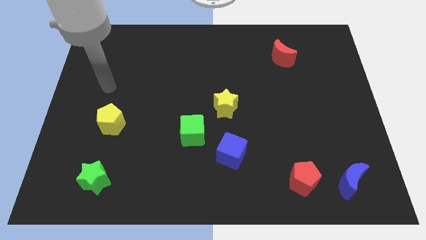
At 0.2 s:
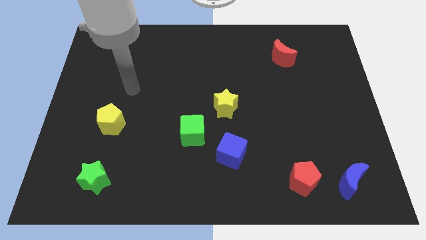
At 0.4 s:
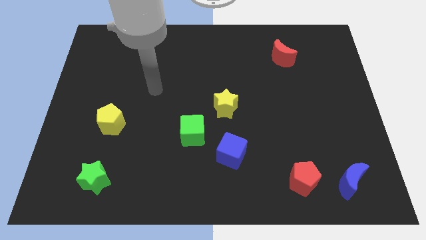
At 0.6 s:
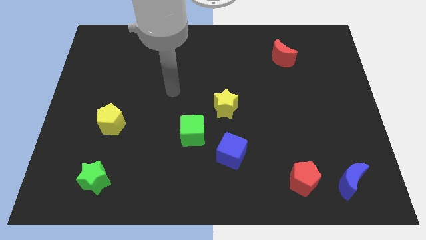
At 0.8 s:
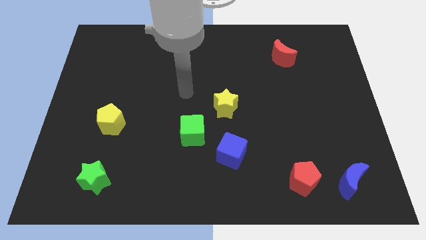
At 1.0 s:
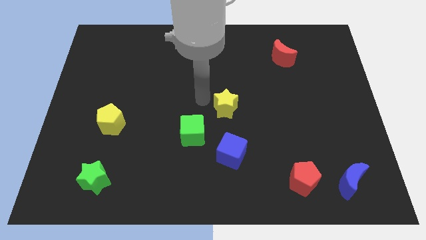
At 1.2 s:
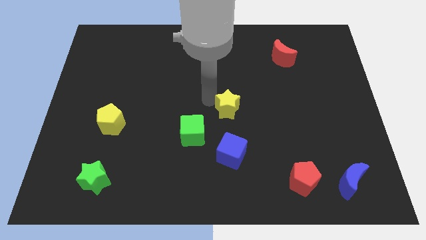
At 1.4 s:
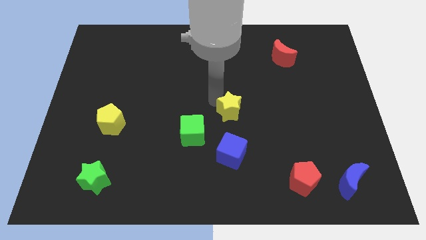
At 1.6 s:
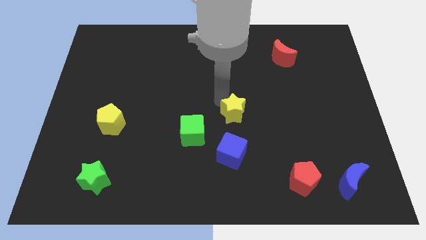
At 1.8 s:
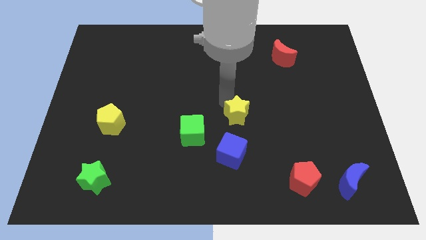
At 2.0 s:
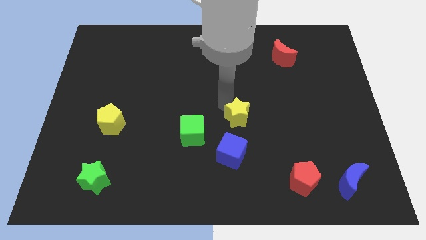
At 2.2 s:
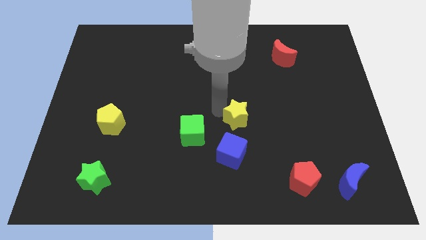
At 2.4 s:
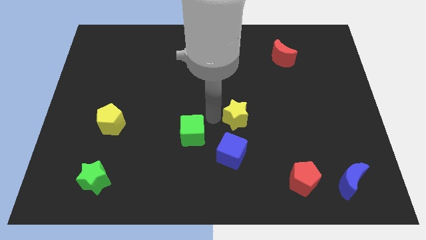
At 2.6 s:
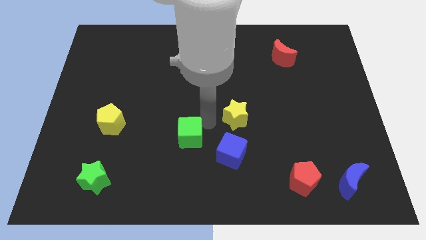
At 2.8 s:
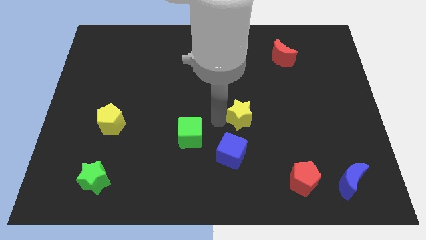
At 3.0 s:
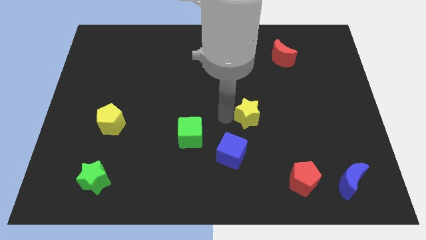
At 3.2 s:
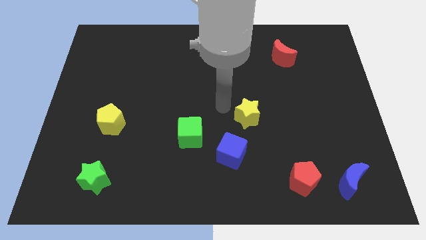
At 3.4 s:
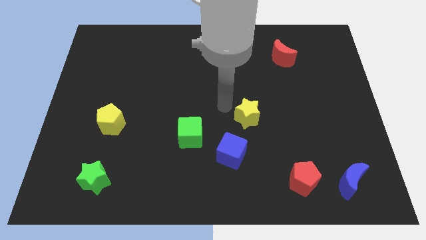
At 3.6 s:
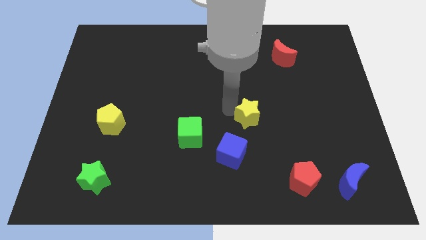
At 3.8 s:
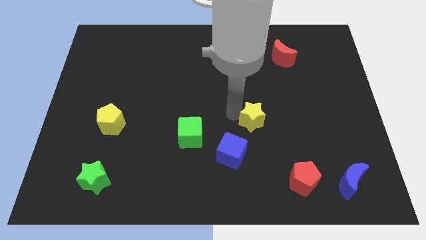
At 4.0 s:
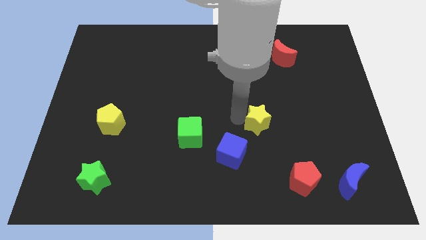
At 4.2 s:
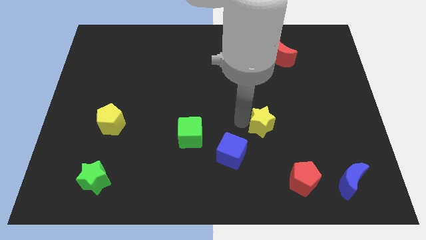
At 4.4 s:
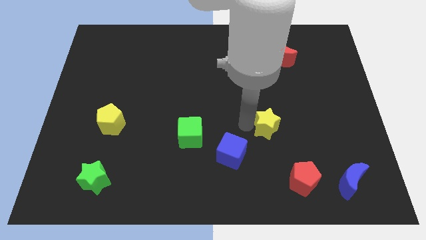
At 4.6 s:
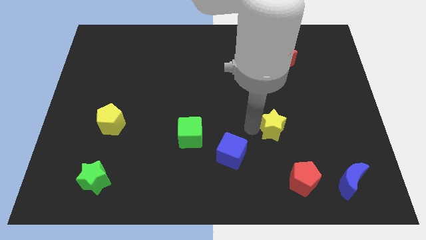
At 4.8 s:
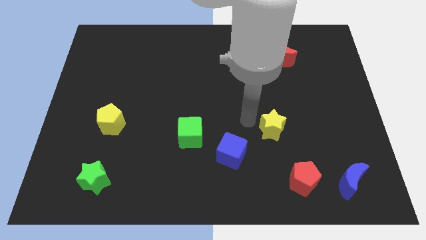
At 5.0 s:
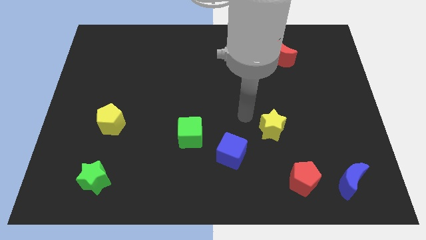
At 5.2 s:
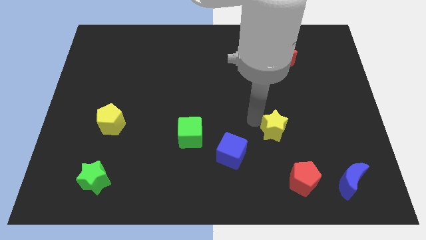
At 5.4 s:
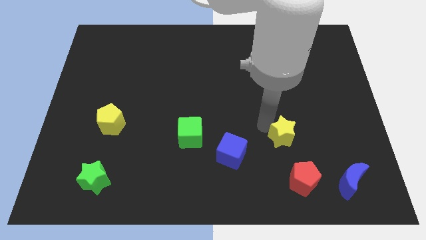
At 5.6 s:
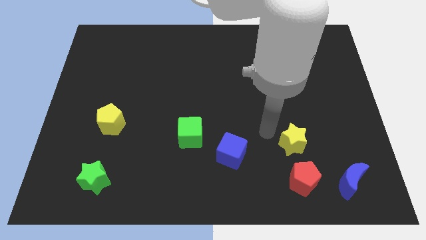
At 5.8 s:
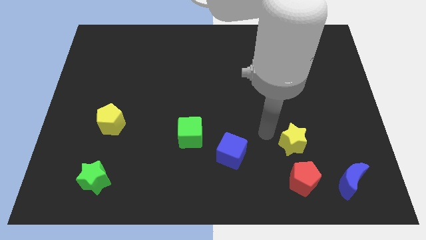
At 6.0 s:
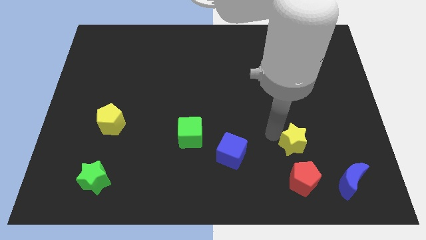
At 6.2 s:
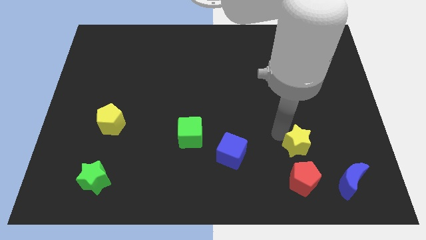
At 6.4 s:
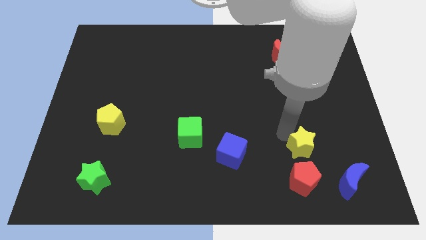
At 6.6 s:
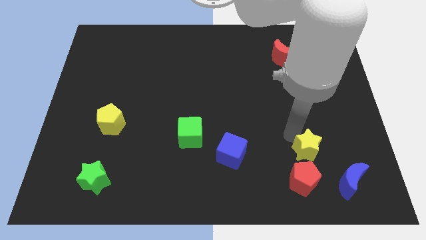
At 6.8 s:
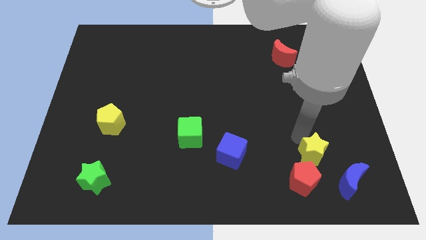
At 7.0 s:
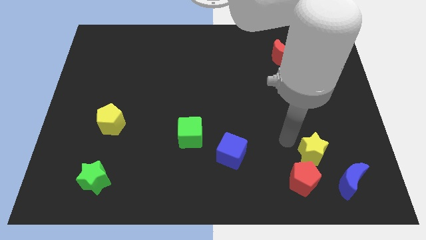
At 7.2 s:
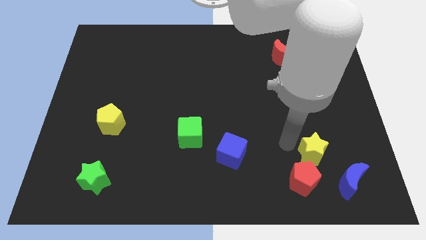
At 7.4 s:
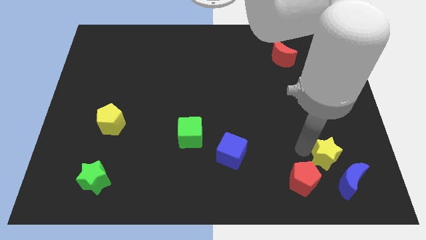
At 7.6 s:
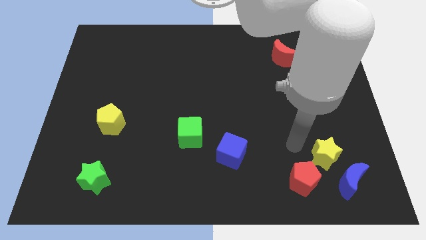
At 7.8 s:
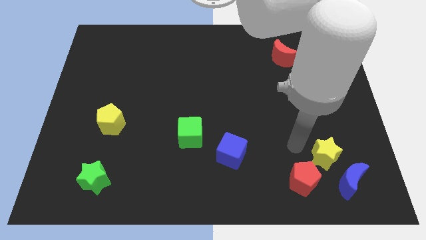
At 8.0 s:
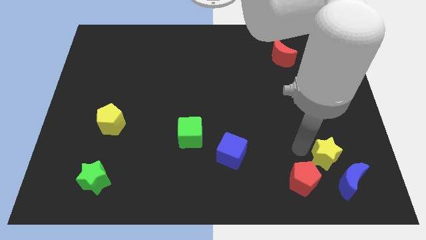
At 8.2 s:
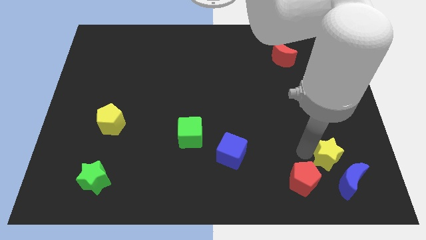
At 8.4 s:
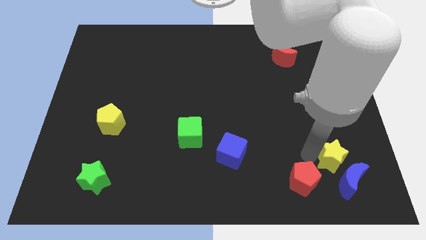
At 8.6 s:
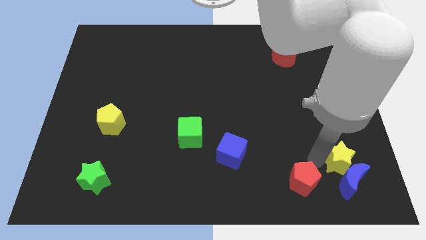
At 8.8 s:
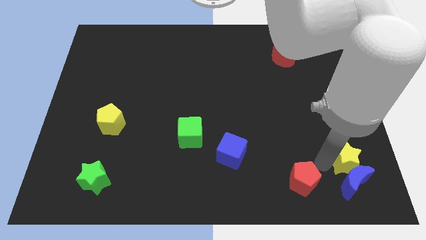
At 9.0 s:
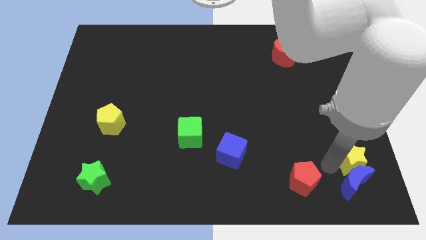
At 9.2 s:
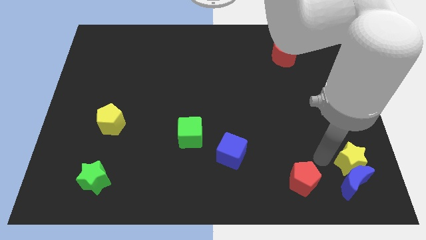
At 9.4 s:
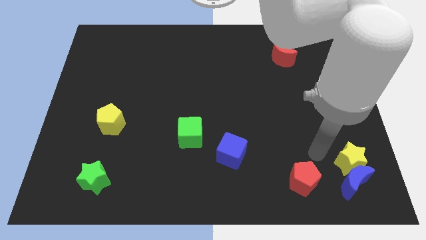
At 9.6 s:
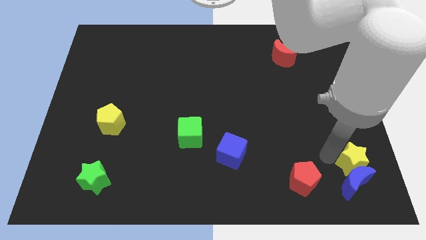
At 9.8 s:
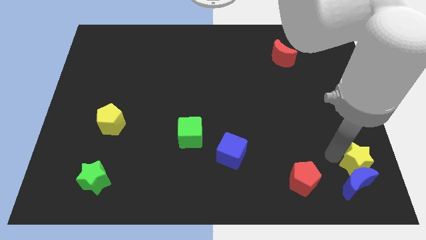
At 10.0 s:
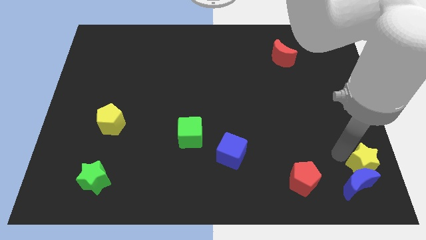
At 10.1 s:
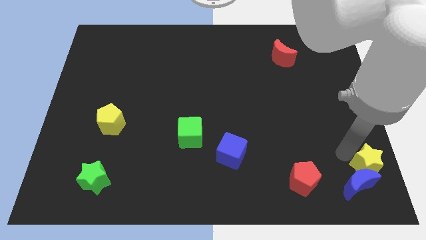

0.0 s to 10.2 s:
move the yellow star to the lower right corner

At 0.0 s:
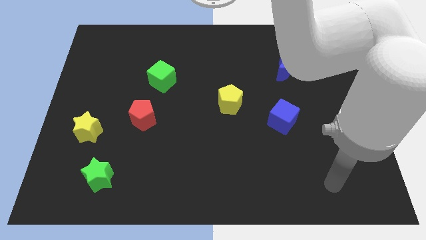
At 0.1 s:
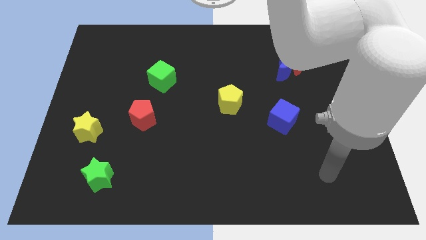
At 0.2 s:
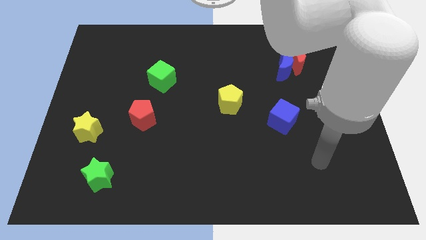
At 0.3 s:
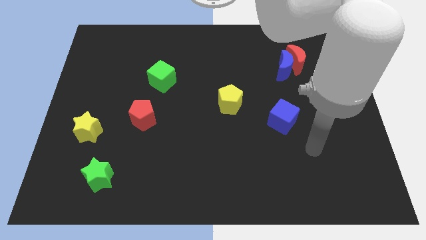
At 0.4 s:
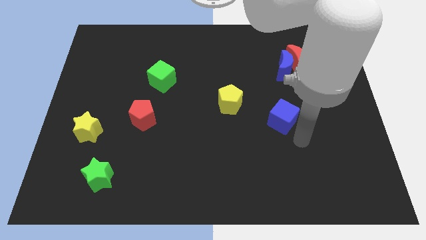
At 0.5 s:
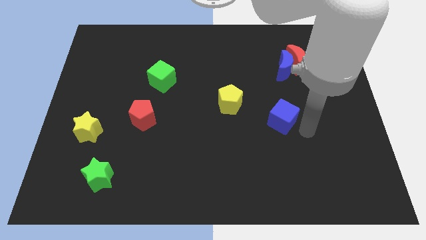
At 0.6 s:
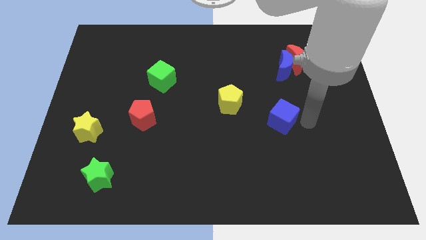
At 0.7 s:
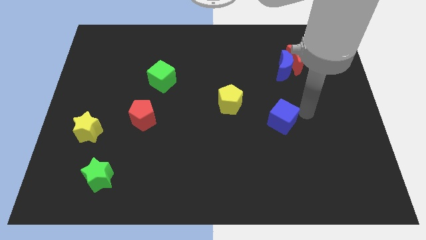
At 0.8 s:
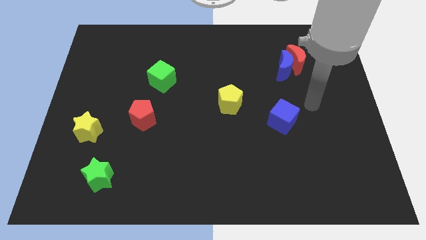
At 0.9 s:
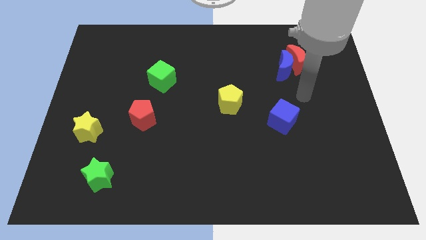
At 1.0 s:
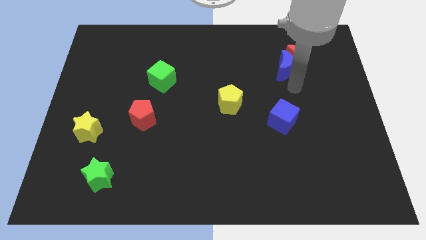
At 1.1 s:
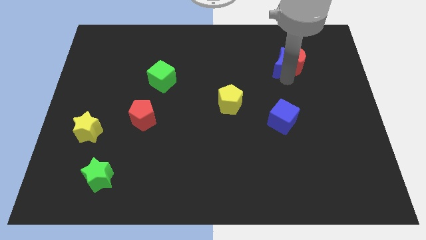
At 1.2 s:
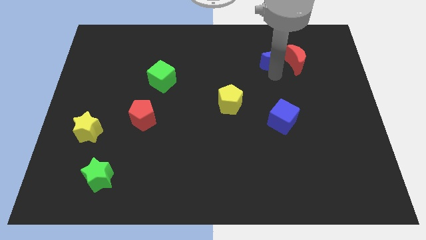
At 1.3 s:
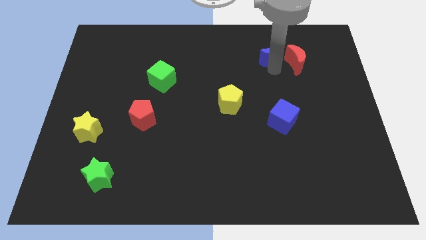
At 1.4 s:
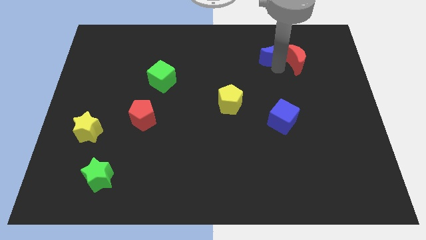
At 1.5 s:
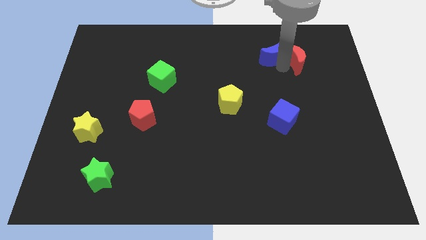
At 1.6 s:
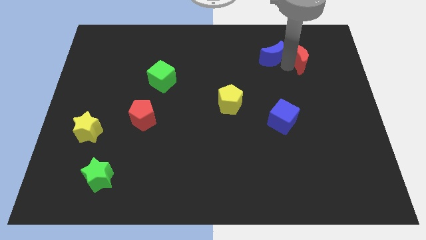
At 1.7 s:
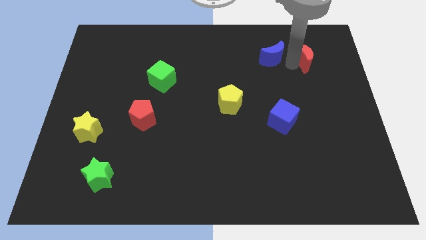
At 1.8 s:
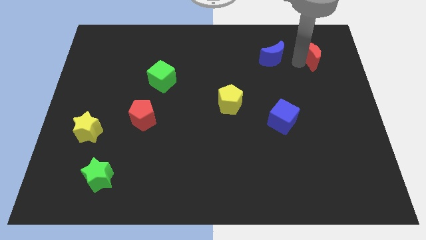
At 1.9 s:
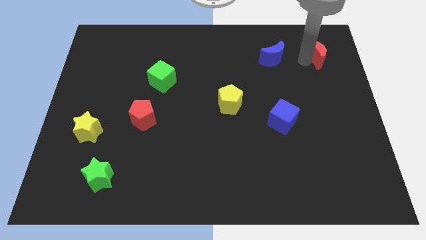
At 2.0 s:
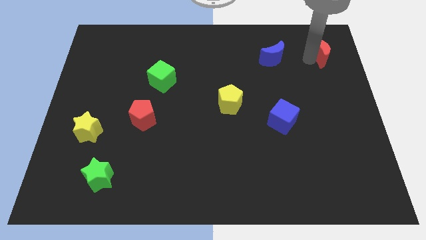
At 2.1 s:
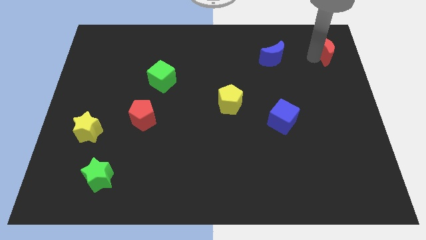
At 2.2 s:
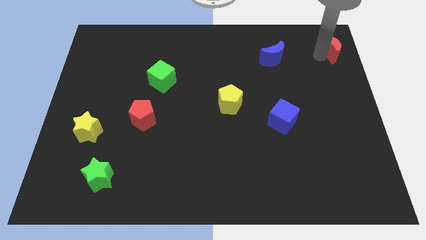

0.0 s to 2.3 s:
put the red moon to the upper right corner
